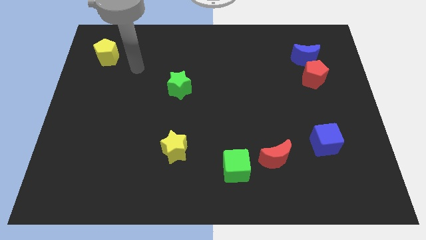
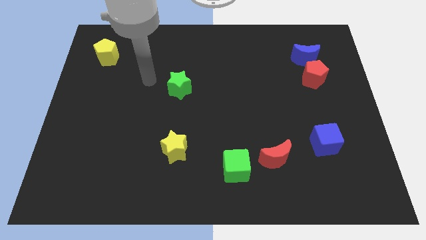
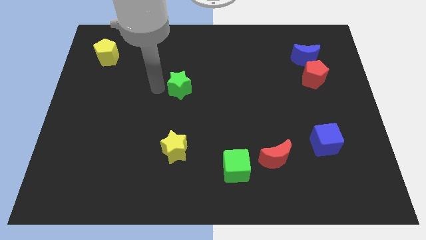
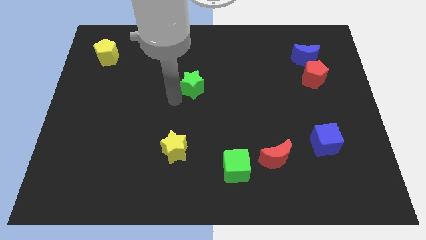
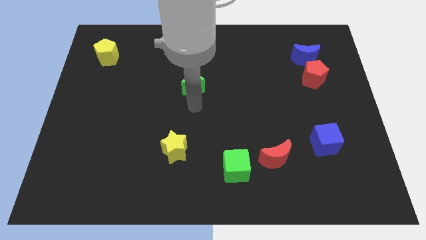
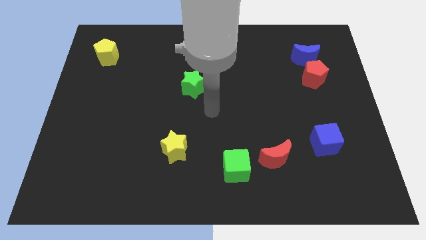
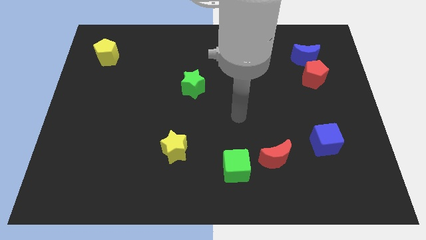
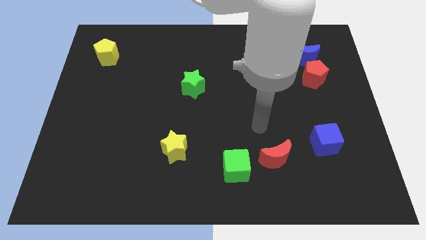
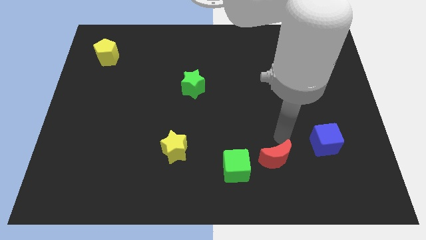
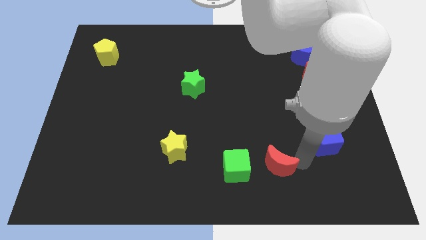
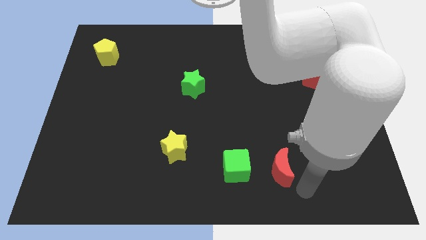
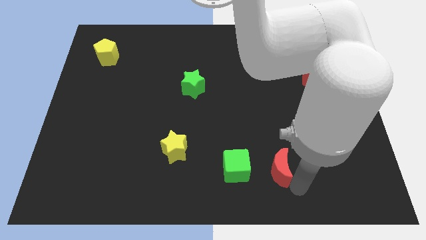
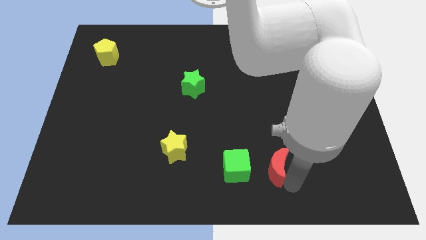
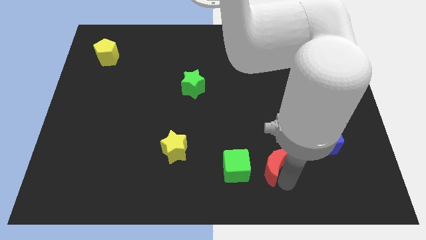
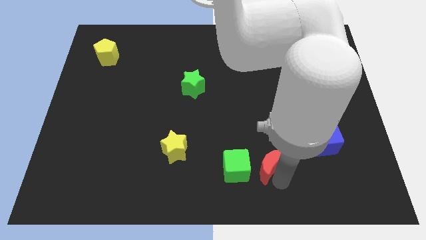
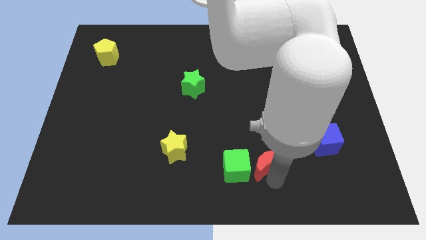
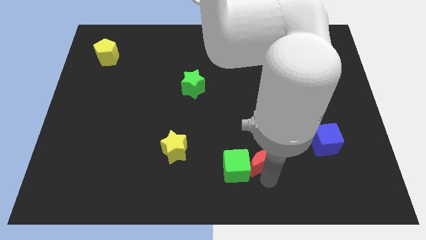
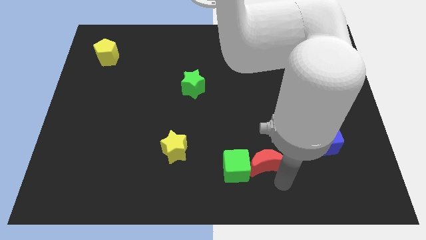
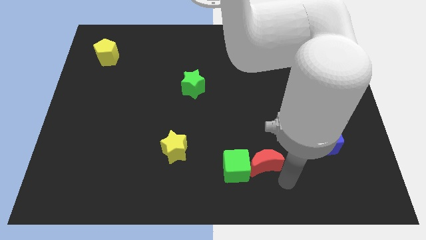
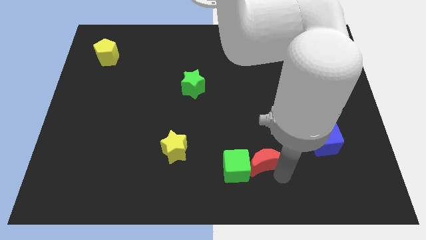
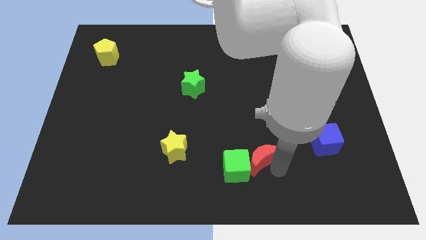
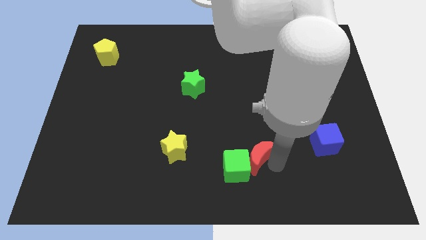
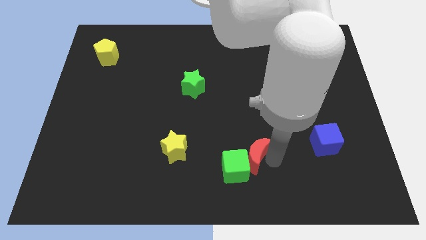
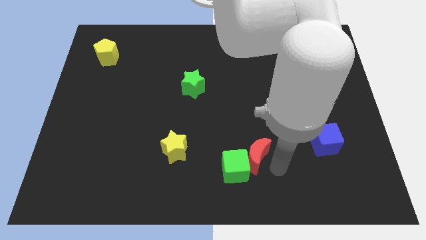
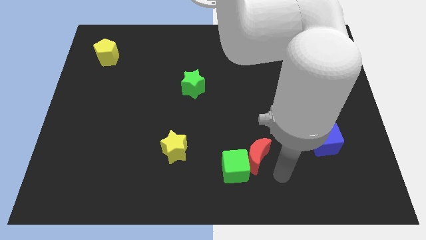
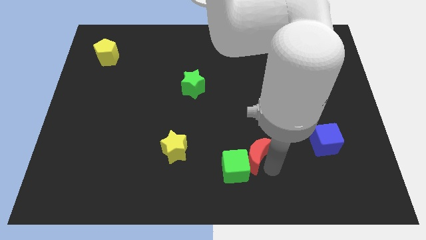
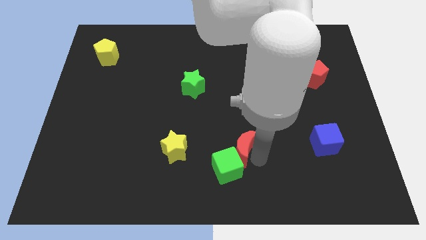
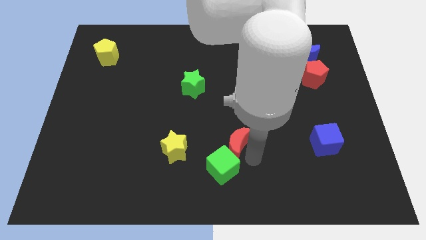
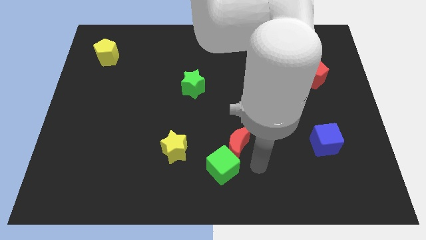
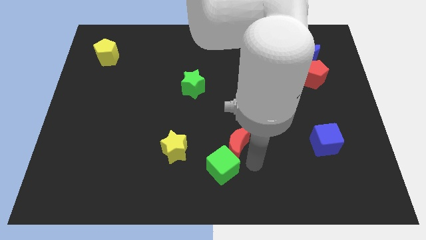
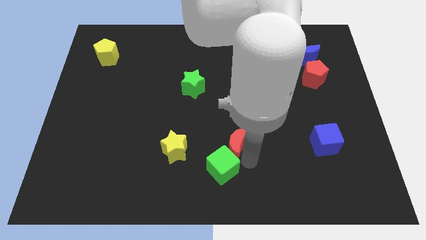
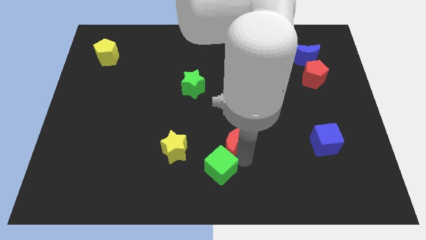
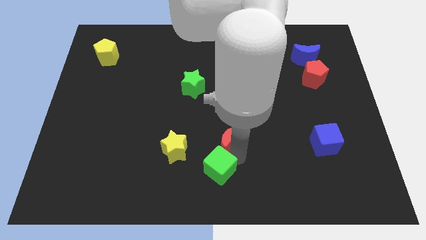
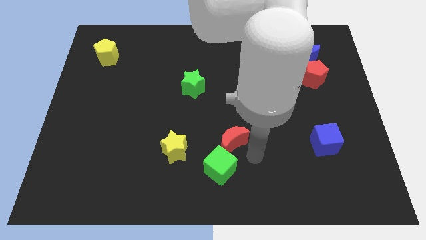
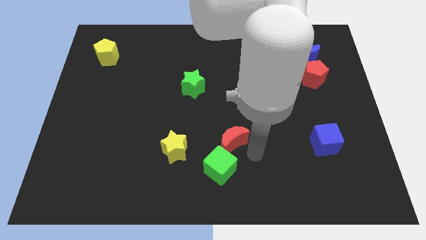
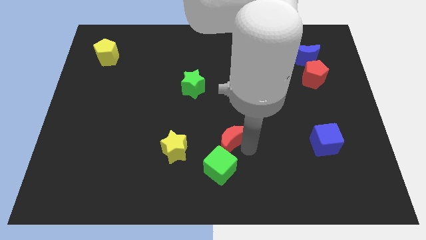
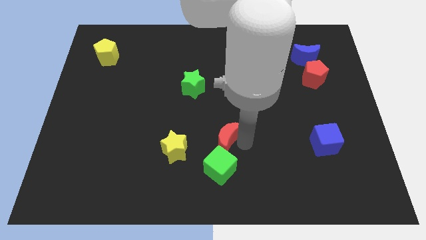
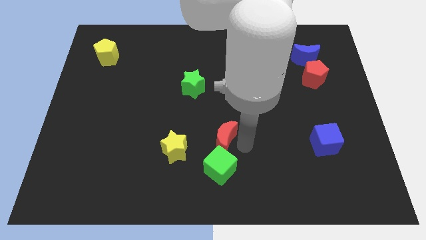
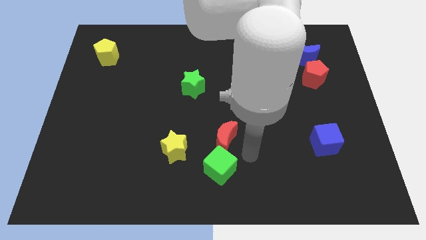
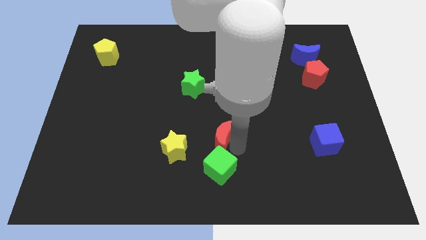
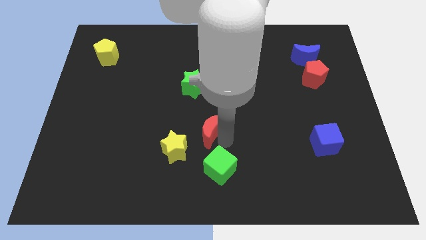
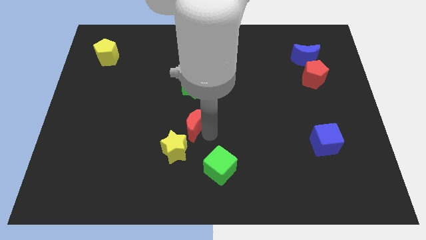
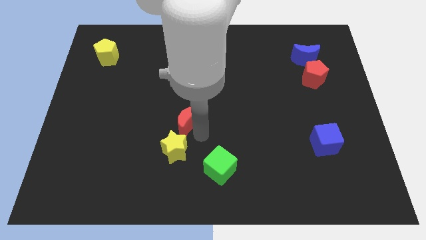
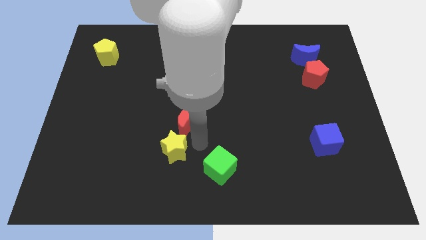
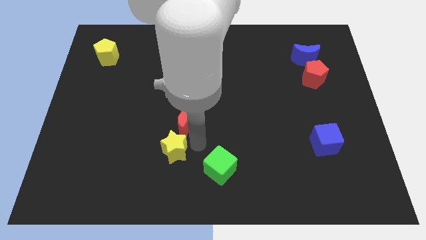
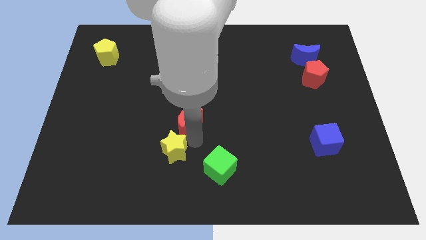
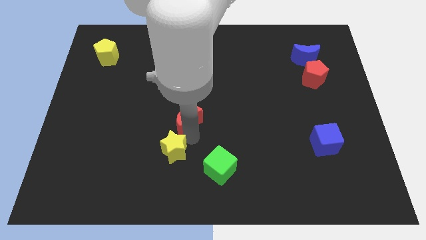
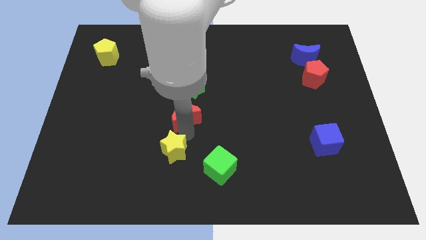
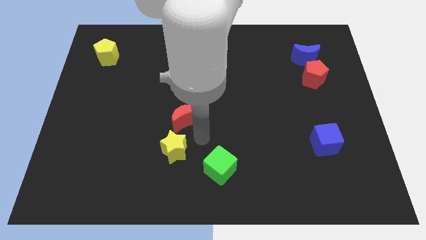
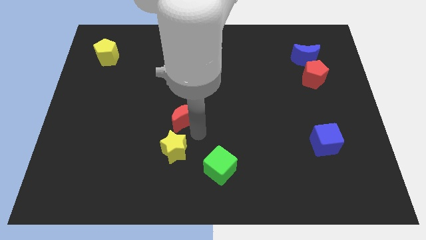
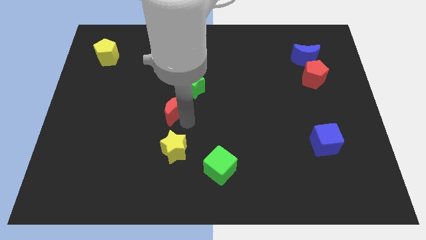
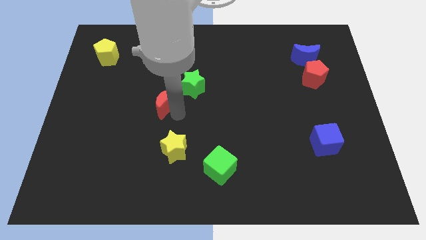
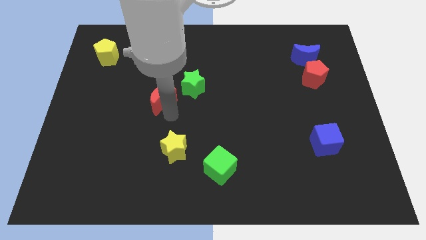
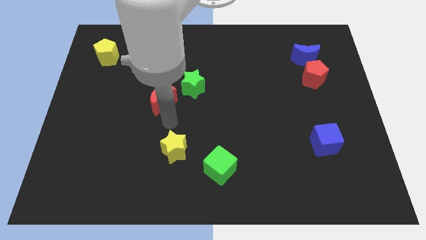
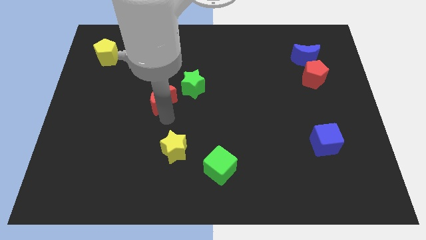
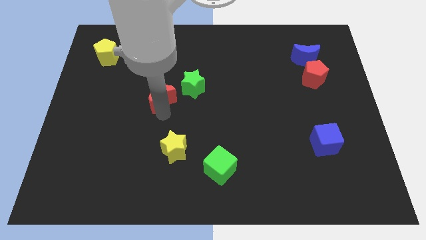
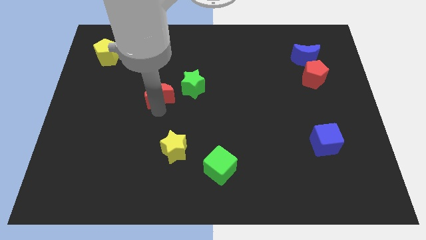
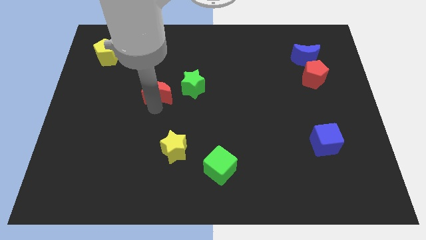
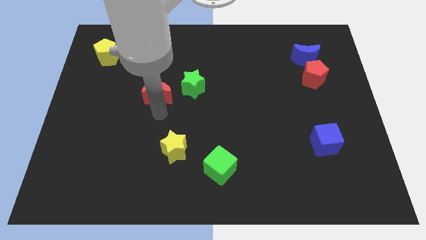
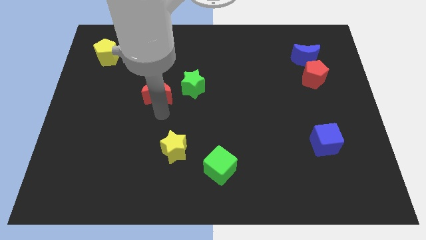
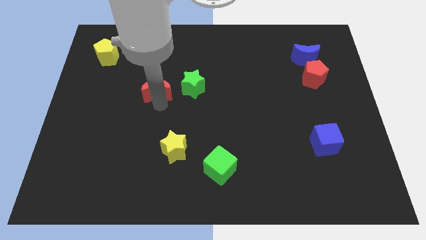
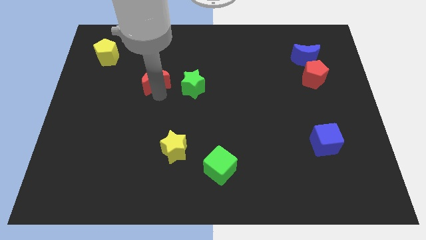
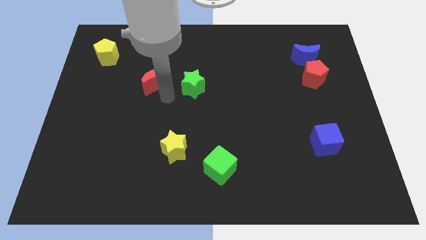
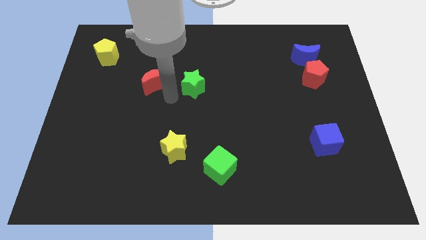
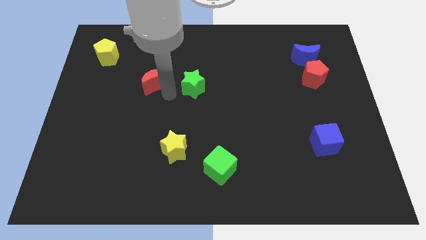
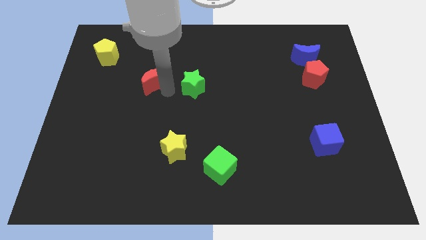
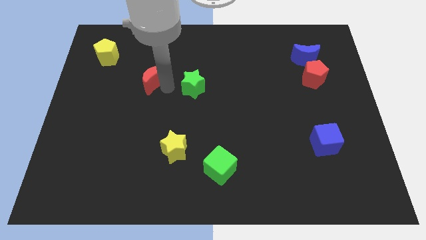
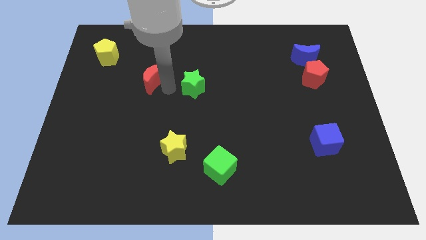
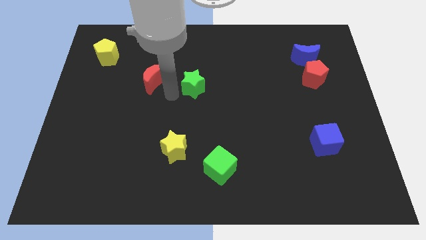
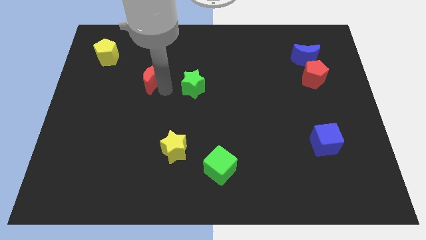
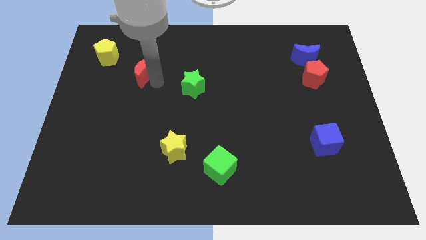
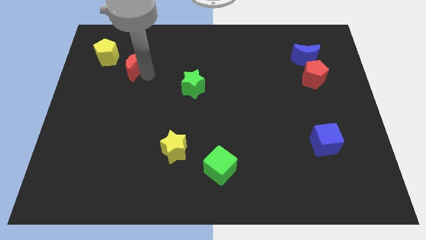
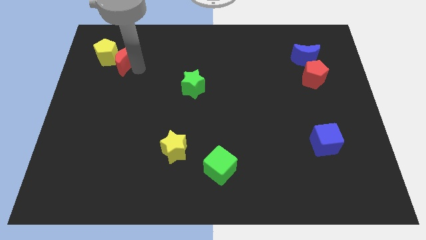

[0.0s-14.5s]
move the red moon close to the yellow pentagon

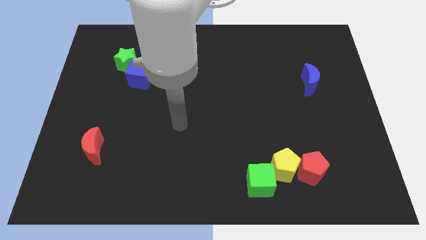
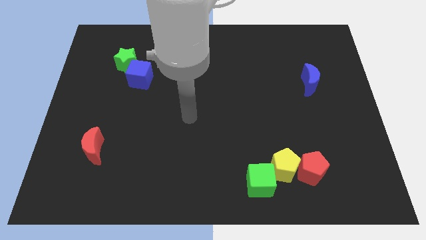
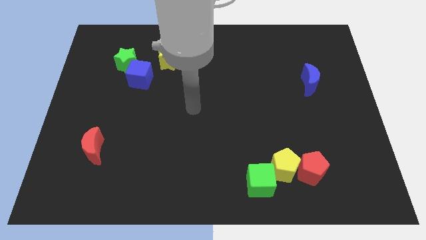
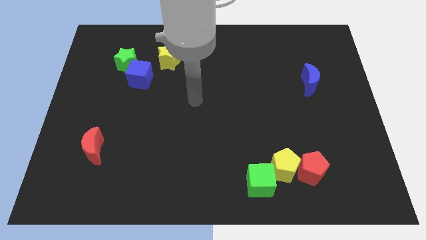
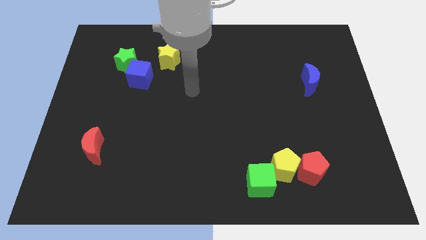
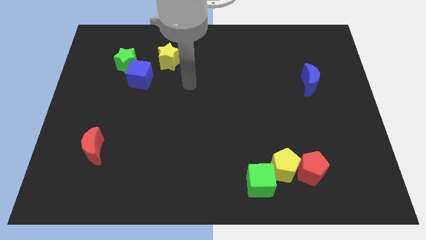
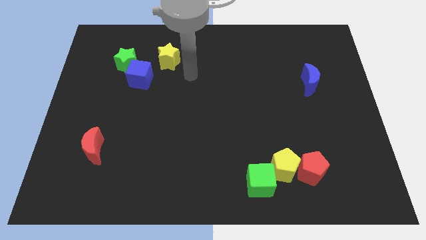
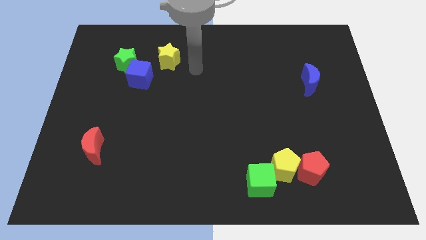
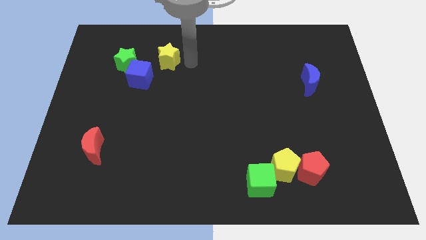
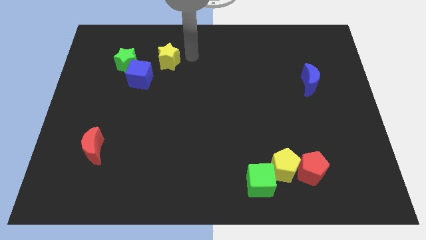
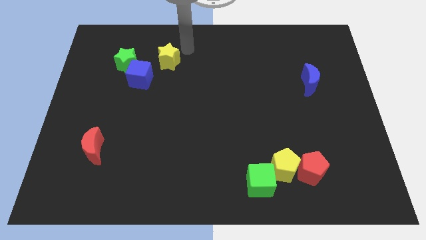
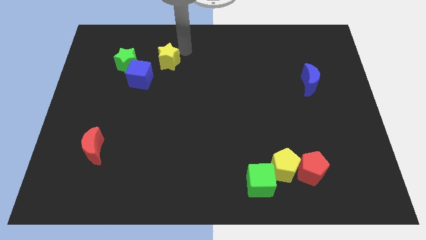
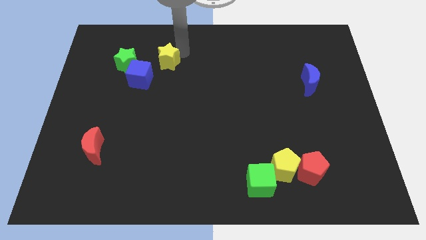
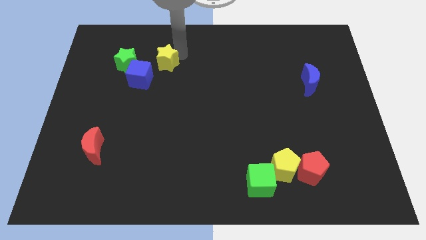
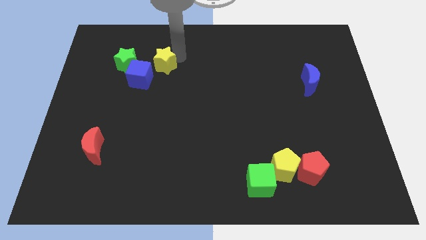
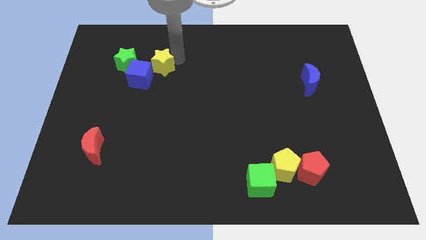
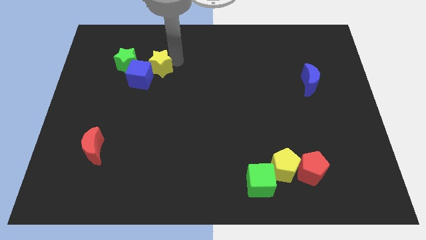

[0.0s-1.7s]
push the yellow star to the blue cube
